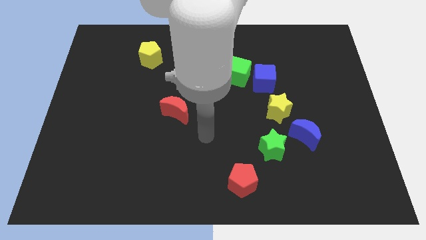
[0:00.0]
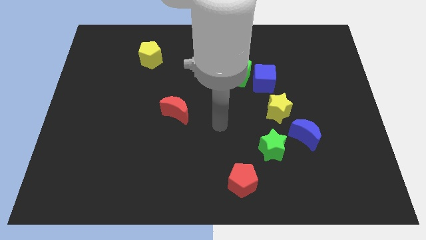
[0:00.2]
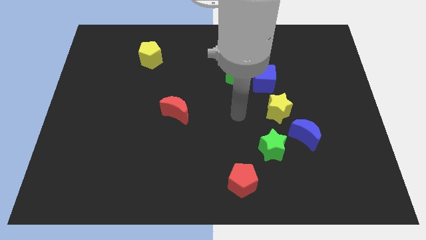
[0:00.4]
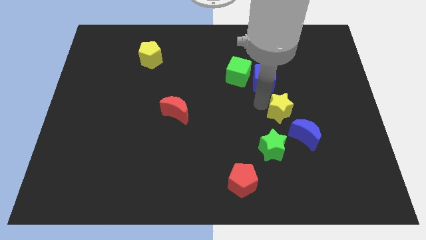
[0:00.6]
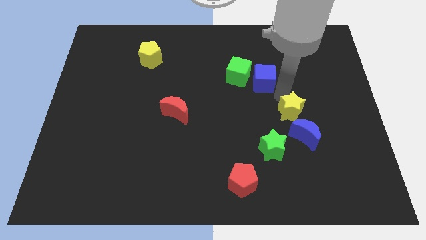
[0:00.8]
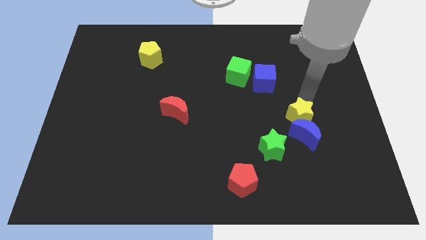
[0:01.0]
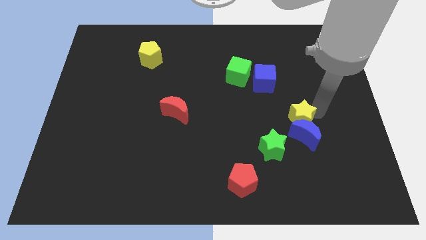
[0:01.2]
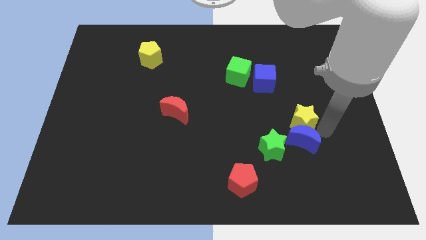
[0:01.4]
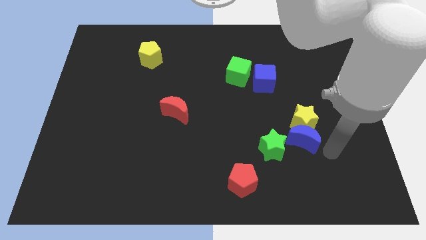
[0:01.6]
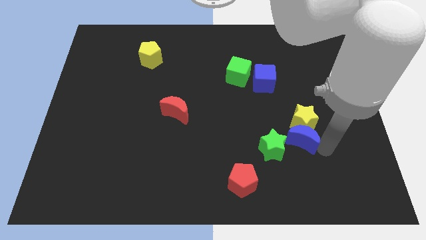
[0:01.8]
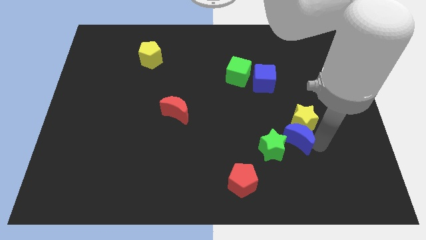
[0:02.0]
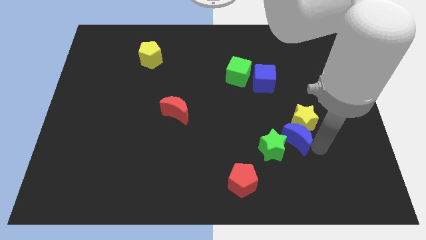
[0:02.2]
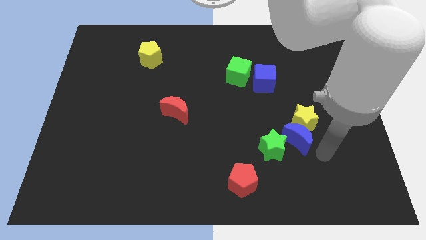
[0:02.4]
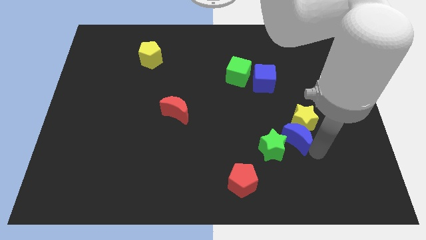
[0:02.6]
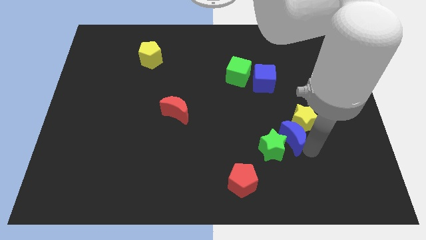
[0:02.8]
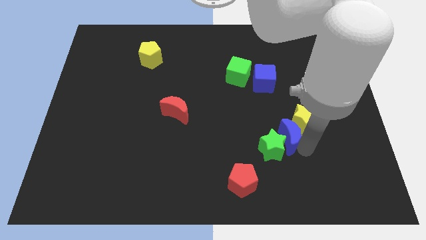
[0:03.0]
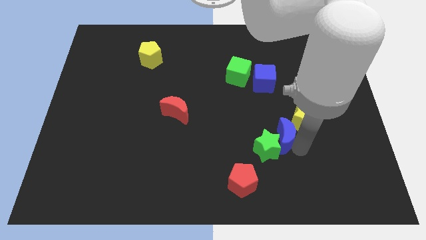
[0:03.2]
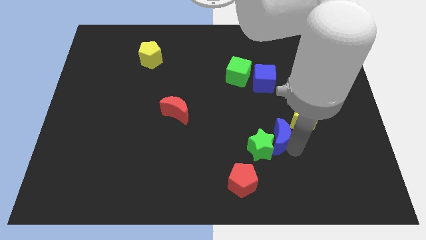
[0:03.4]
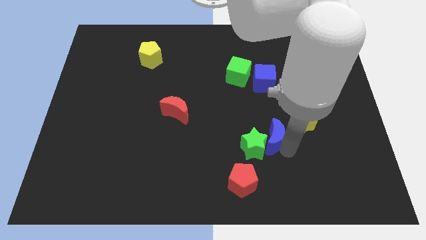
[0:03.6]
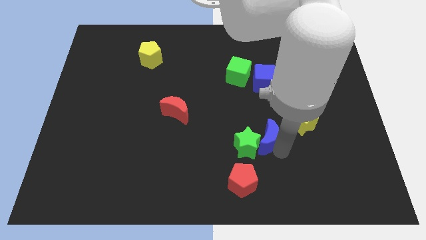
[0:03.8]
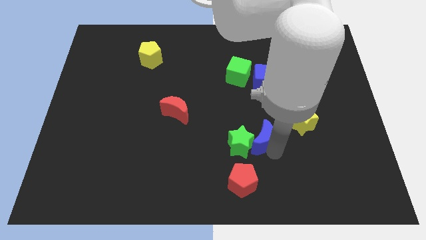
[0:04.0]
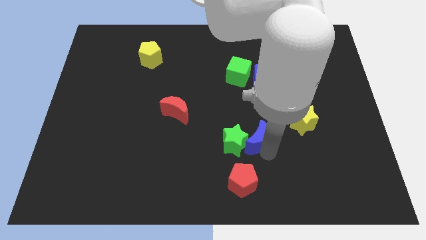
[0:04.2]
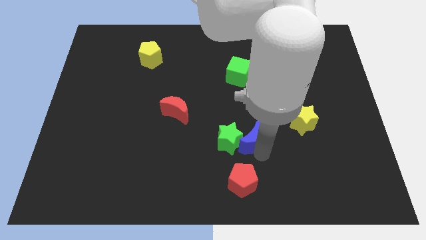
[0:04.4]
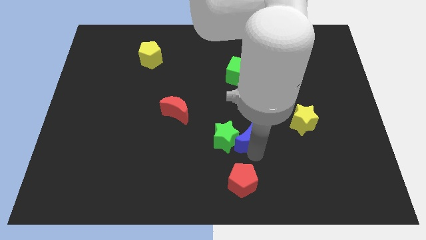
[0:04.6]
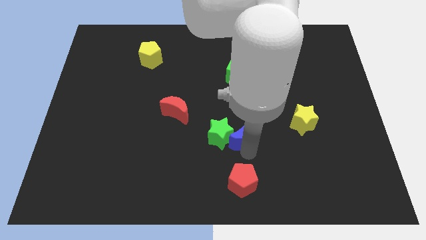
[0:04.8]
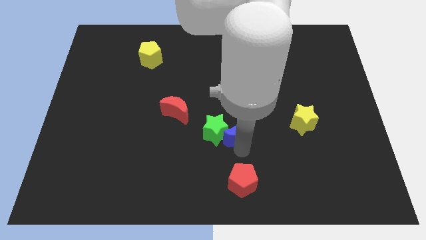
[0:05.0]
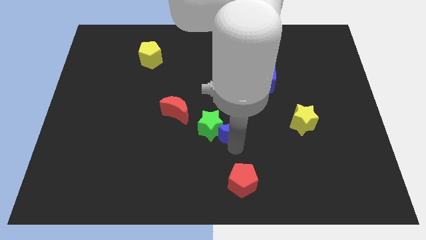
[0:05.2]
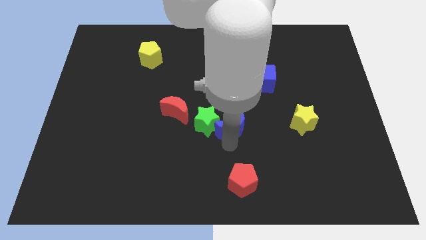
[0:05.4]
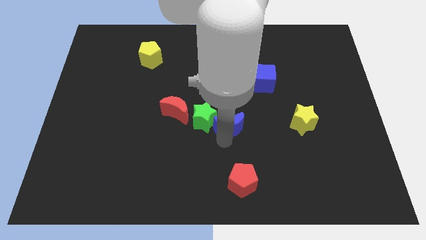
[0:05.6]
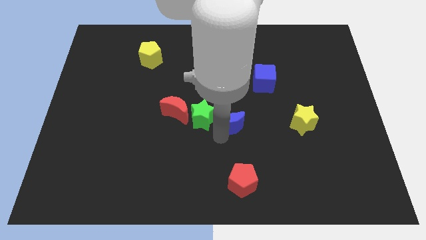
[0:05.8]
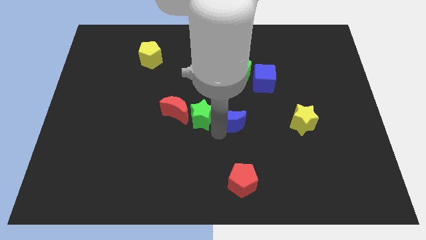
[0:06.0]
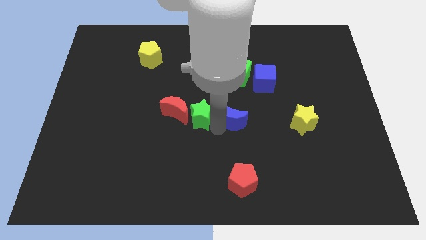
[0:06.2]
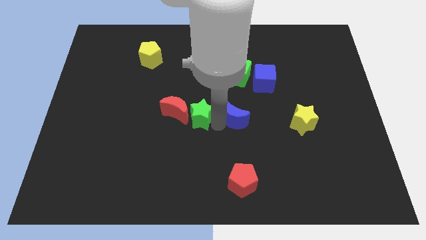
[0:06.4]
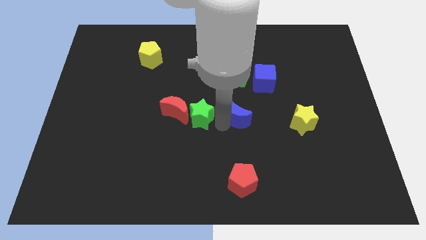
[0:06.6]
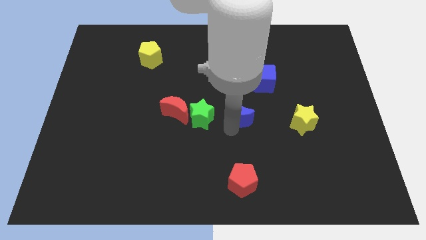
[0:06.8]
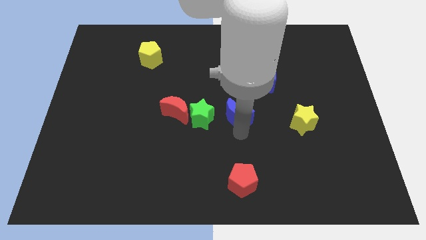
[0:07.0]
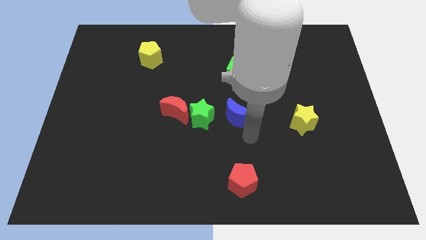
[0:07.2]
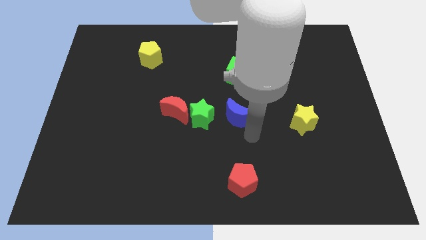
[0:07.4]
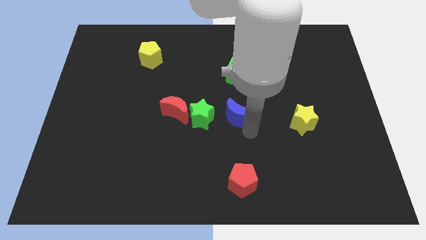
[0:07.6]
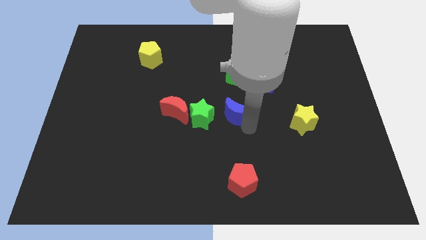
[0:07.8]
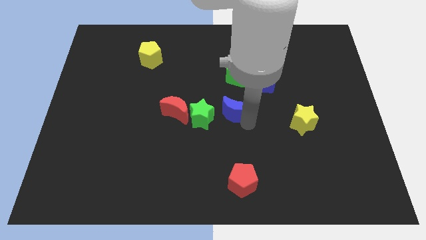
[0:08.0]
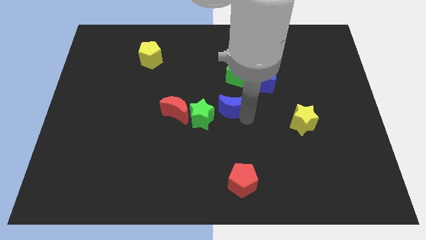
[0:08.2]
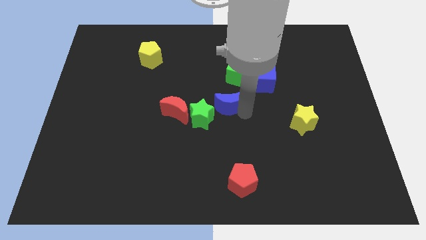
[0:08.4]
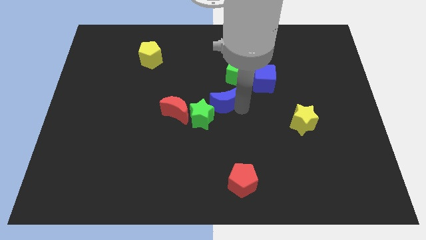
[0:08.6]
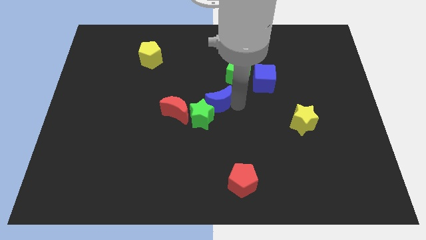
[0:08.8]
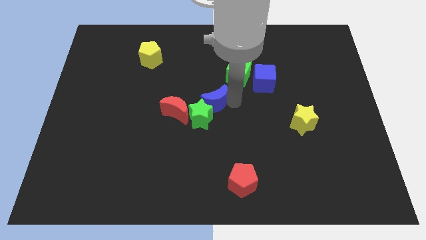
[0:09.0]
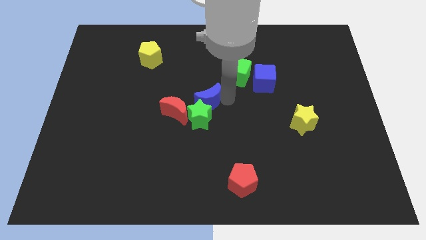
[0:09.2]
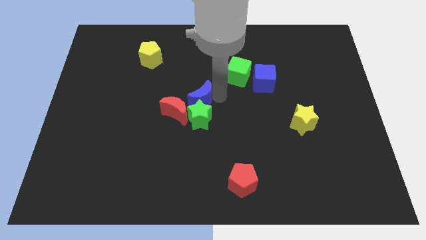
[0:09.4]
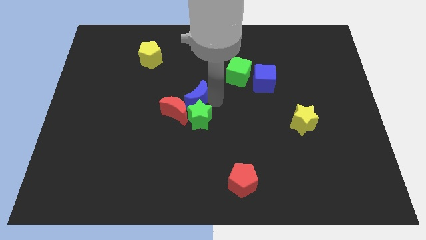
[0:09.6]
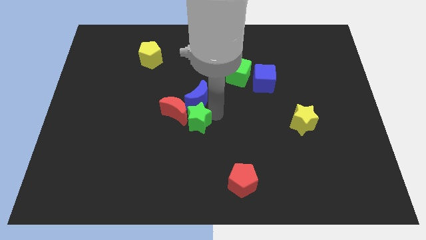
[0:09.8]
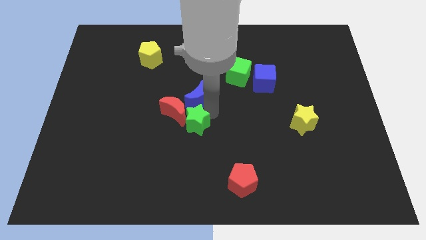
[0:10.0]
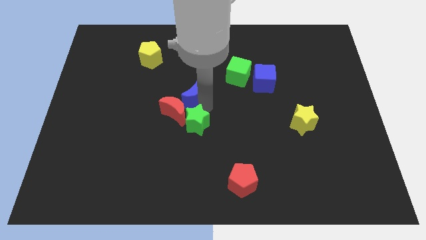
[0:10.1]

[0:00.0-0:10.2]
move the blue moon to the top of the red moon

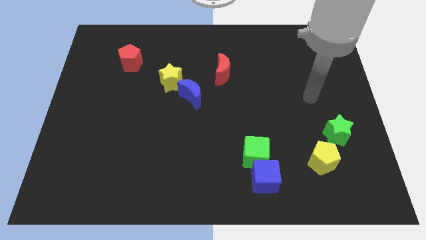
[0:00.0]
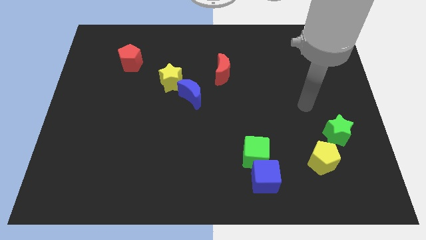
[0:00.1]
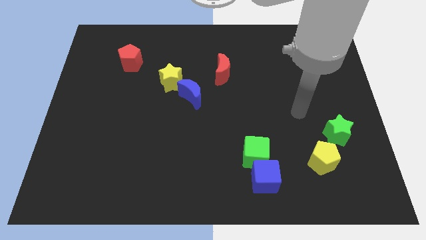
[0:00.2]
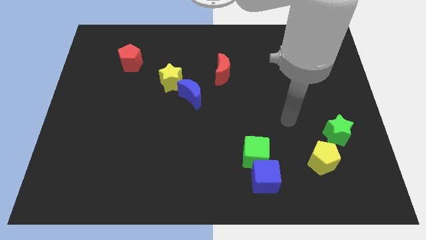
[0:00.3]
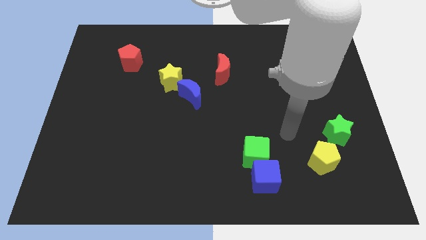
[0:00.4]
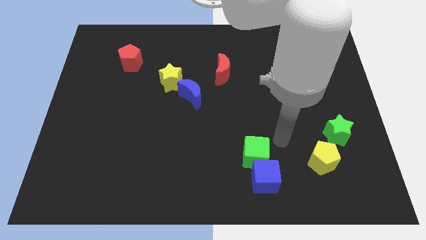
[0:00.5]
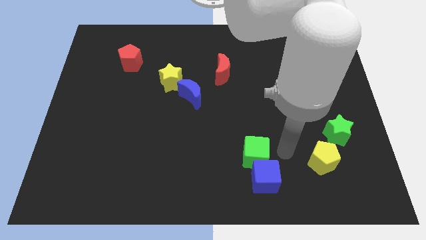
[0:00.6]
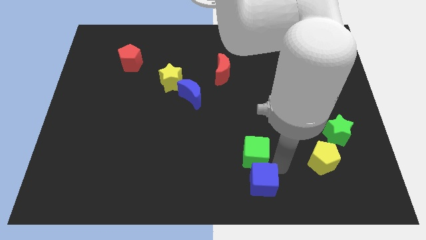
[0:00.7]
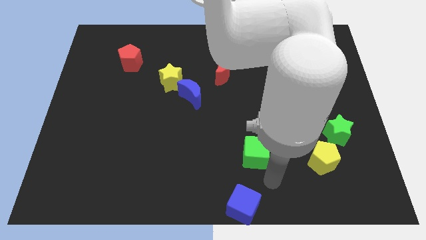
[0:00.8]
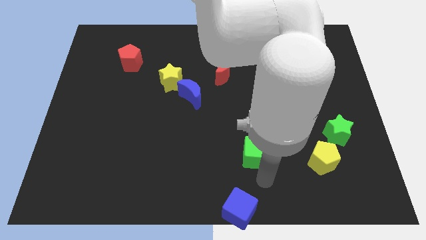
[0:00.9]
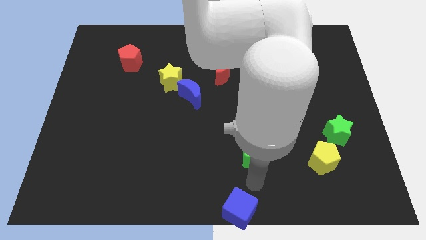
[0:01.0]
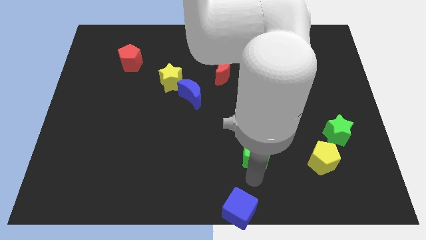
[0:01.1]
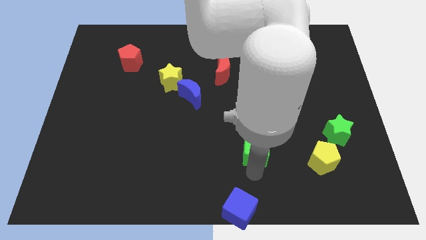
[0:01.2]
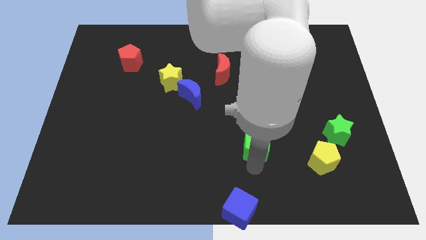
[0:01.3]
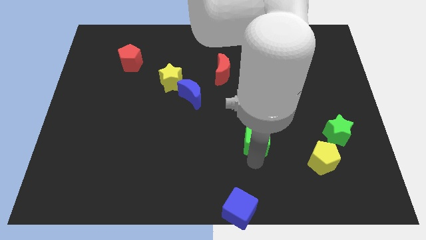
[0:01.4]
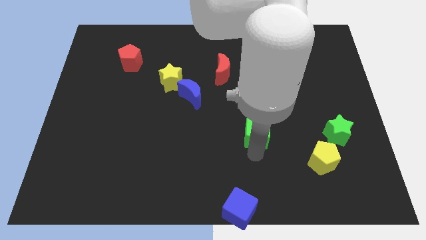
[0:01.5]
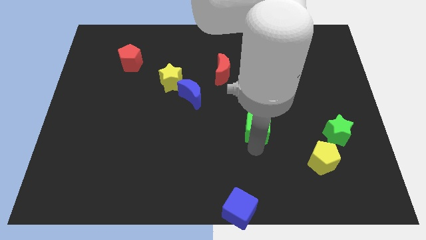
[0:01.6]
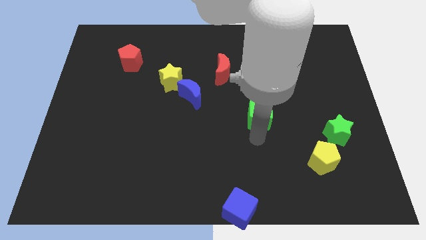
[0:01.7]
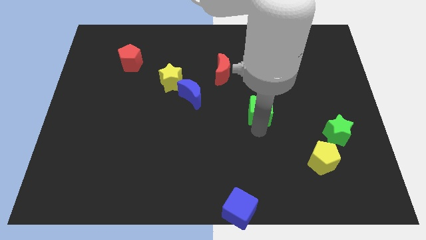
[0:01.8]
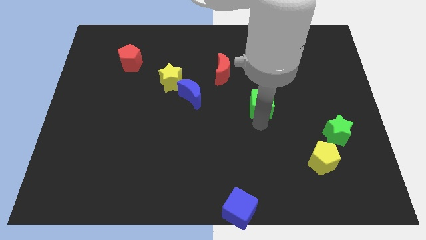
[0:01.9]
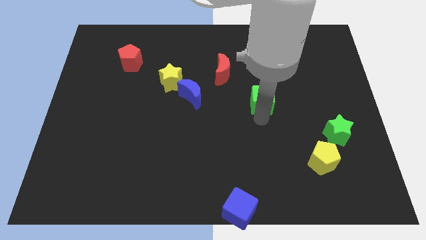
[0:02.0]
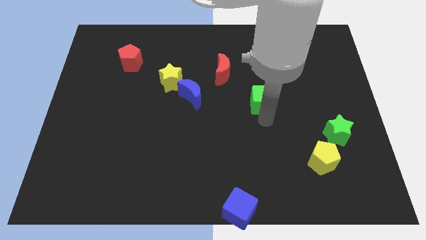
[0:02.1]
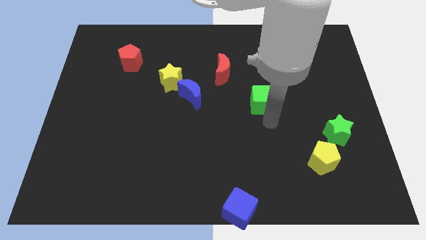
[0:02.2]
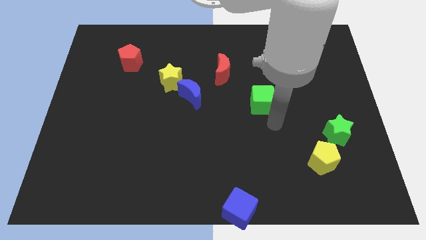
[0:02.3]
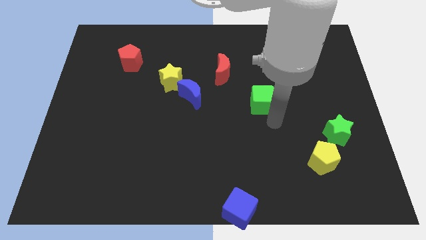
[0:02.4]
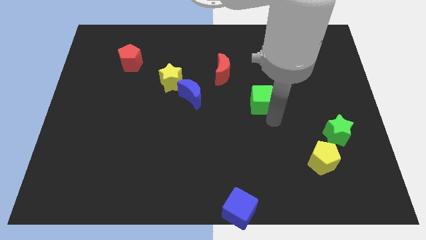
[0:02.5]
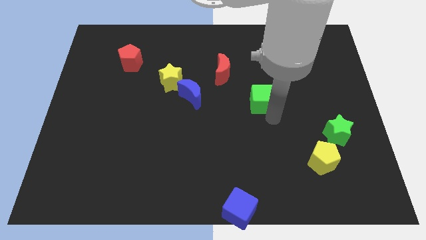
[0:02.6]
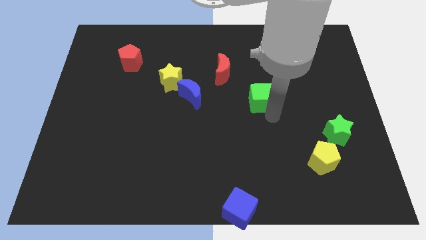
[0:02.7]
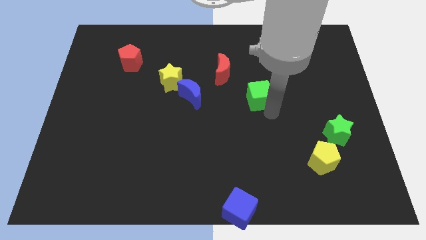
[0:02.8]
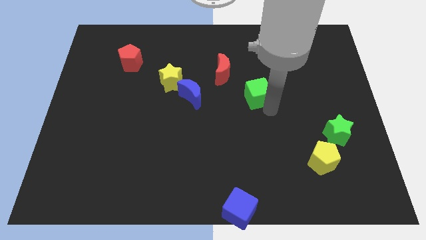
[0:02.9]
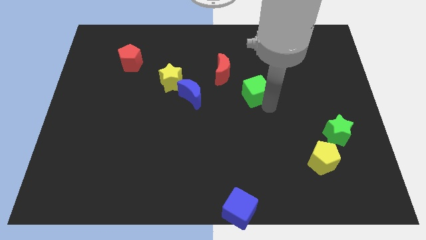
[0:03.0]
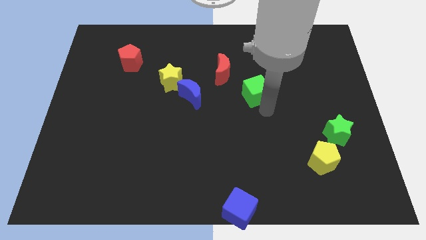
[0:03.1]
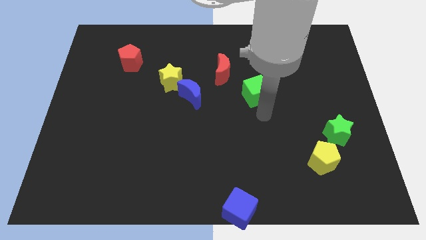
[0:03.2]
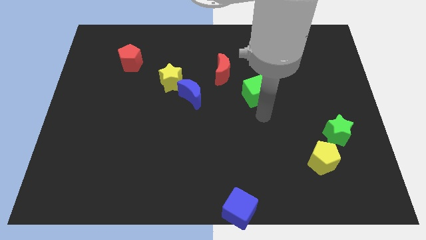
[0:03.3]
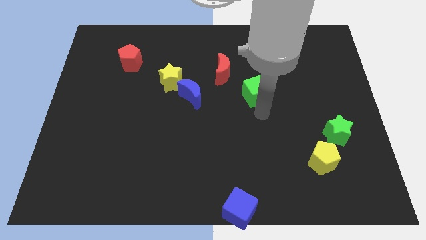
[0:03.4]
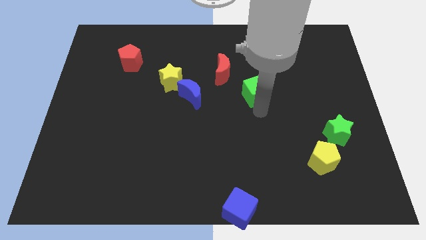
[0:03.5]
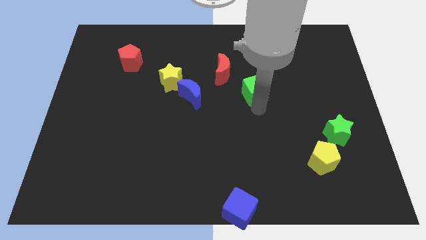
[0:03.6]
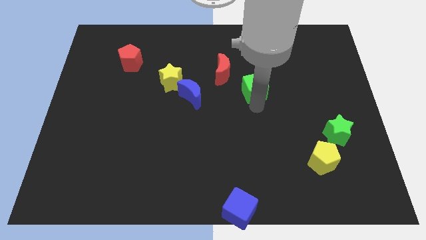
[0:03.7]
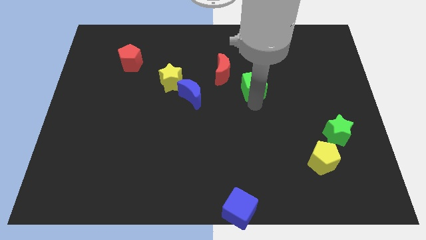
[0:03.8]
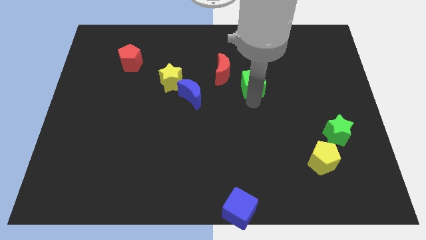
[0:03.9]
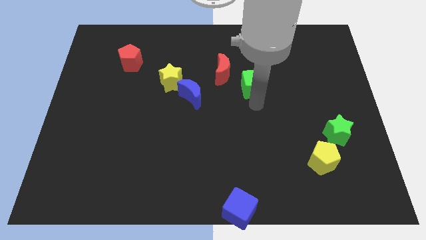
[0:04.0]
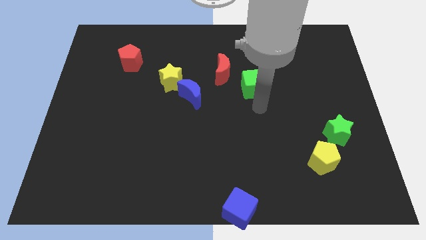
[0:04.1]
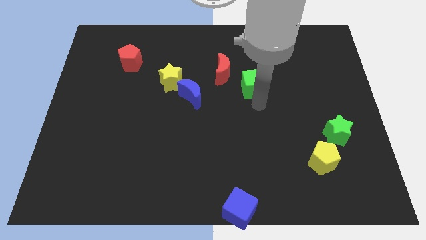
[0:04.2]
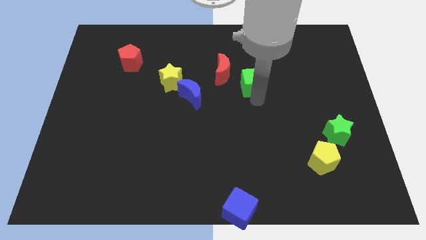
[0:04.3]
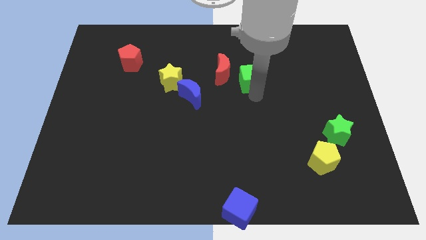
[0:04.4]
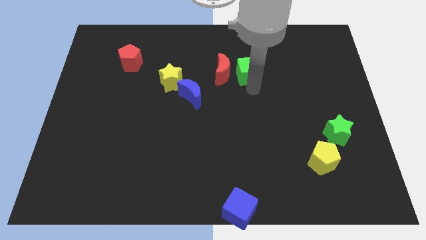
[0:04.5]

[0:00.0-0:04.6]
put the green cube to the top right of the red moon
